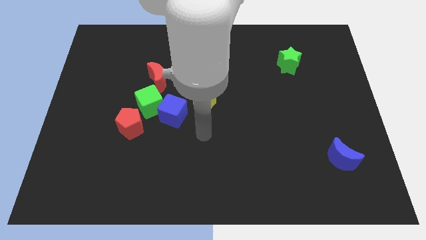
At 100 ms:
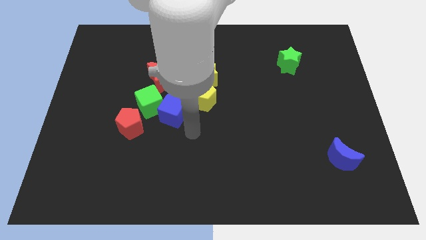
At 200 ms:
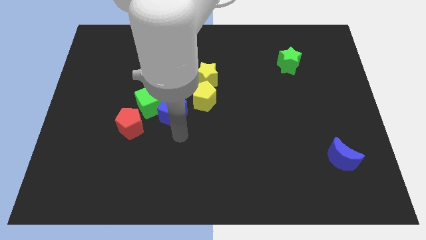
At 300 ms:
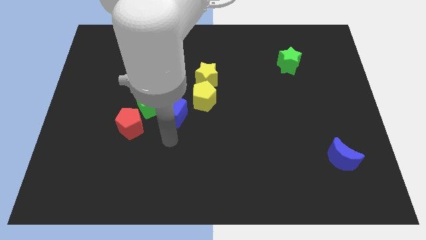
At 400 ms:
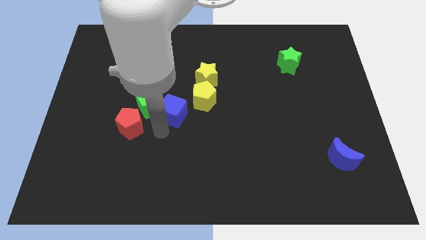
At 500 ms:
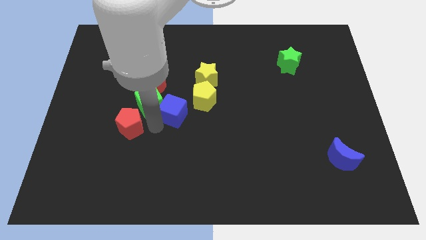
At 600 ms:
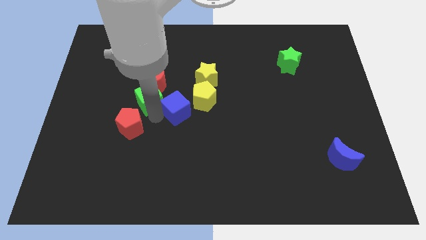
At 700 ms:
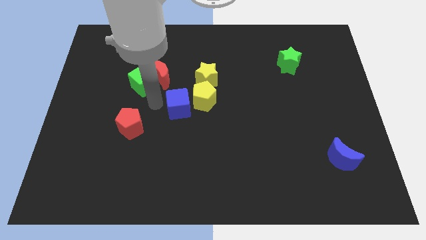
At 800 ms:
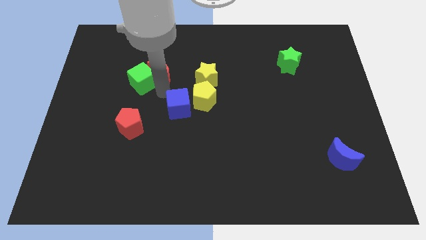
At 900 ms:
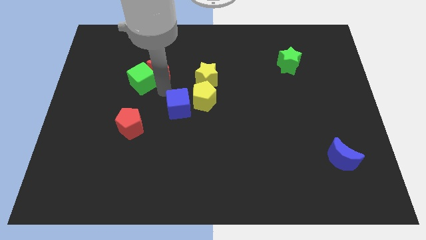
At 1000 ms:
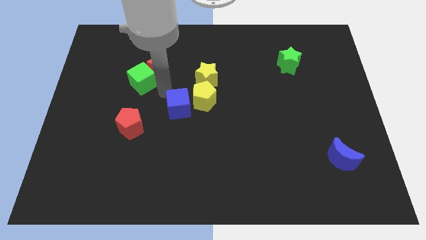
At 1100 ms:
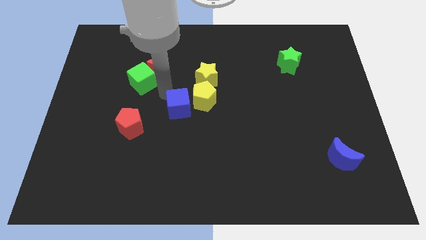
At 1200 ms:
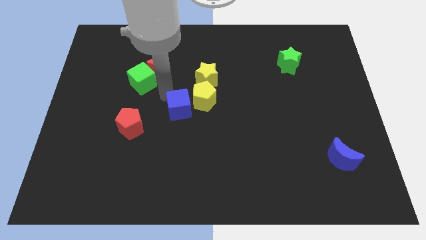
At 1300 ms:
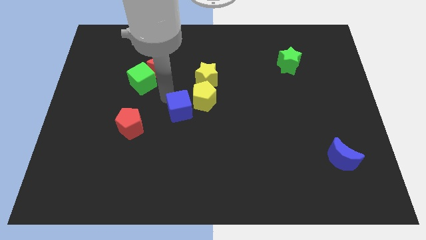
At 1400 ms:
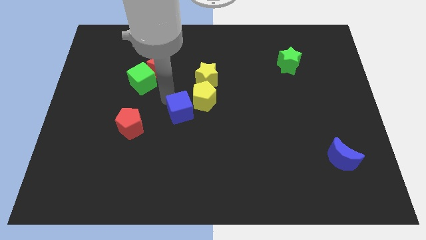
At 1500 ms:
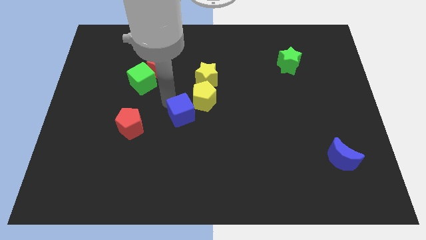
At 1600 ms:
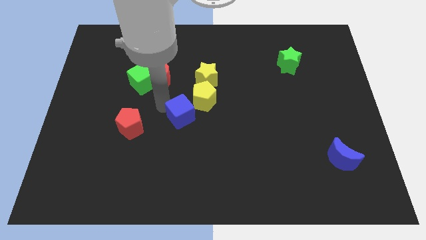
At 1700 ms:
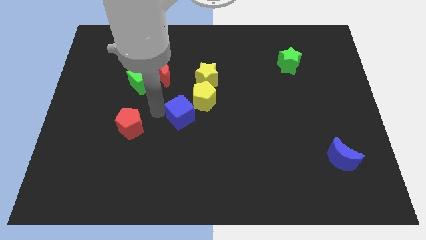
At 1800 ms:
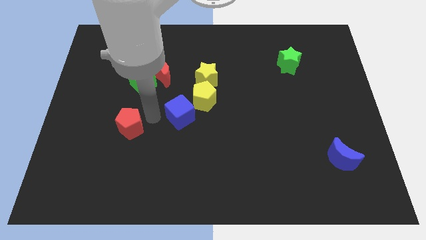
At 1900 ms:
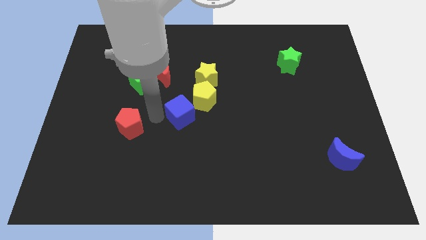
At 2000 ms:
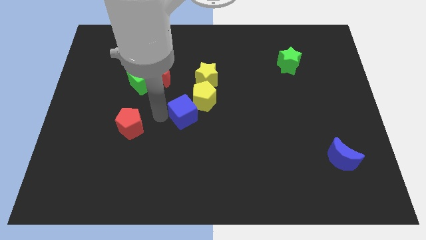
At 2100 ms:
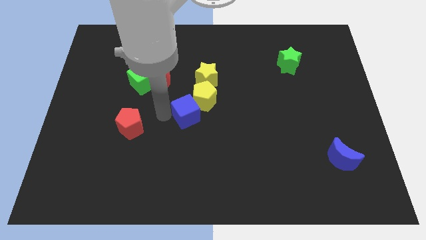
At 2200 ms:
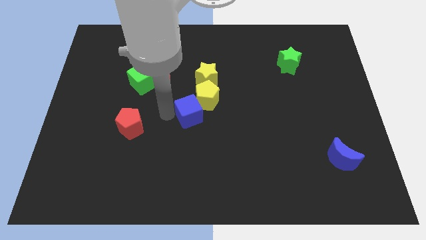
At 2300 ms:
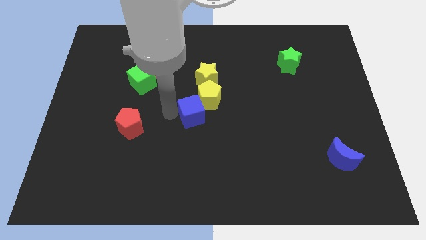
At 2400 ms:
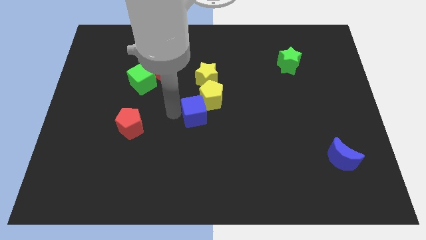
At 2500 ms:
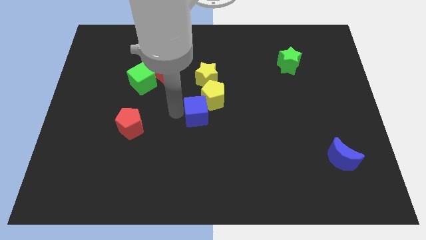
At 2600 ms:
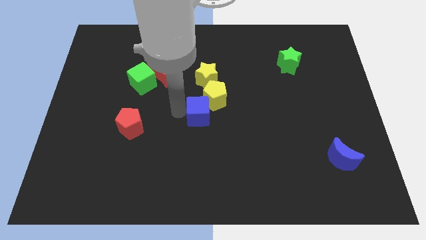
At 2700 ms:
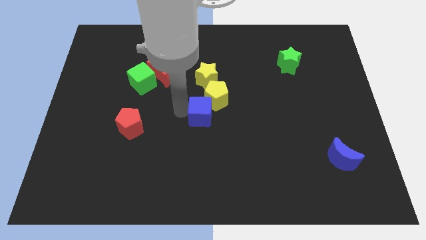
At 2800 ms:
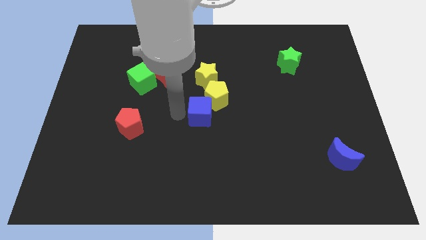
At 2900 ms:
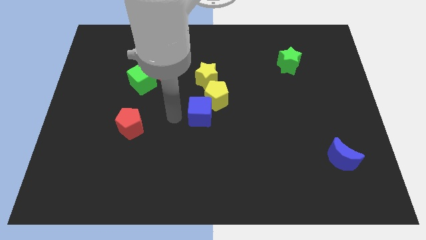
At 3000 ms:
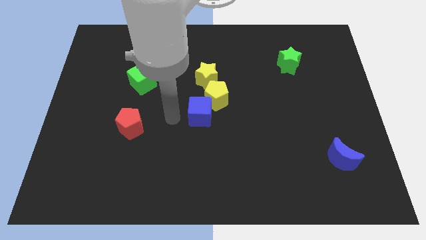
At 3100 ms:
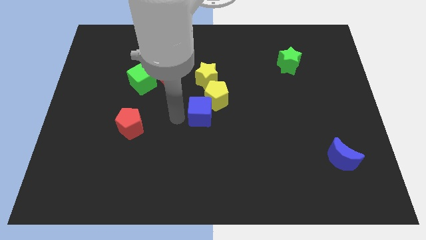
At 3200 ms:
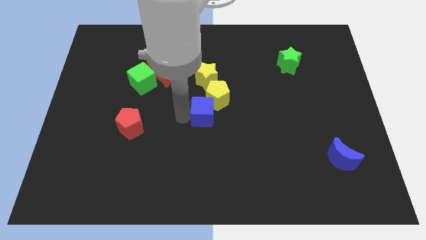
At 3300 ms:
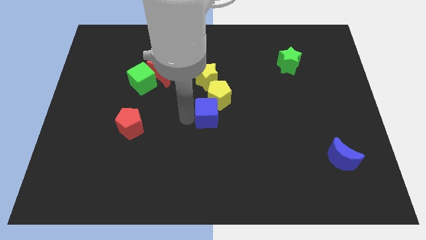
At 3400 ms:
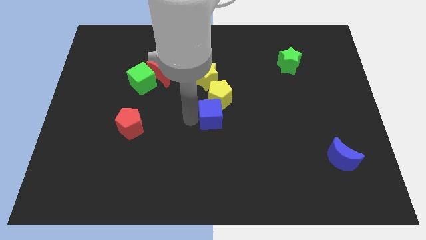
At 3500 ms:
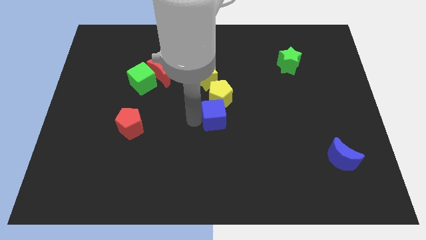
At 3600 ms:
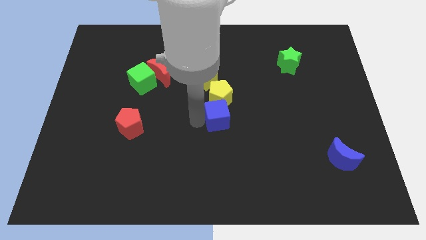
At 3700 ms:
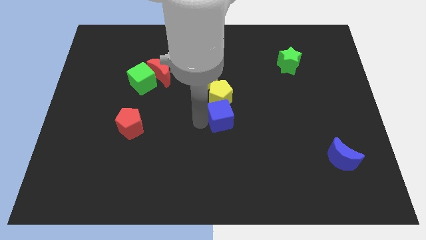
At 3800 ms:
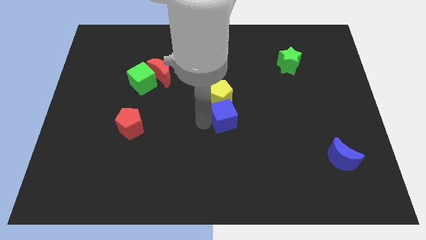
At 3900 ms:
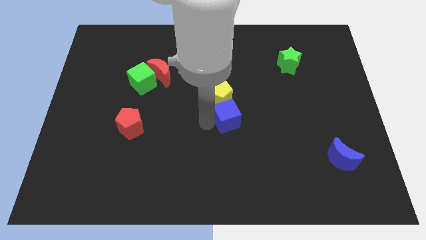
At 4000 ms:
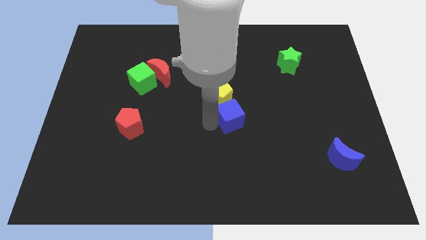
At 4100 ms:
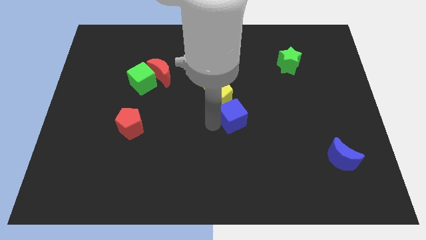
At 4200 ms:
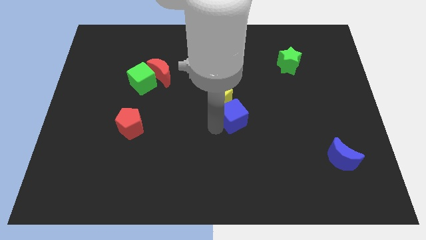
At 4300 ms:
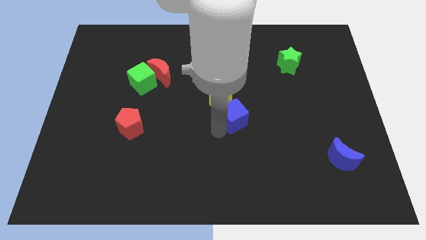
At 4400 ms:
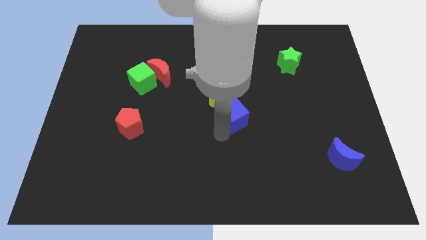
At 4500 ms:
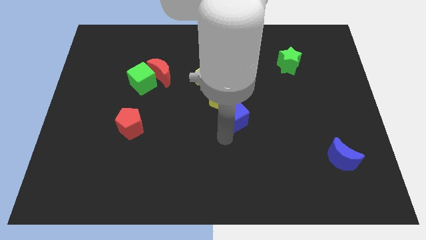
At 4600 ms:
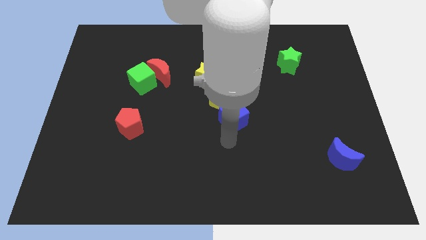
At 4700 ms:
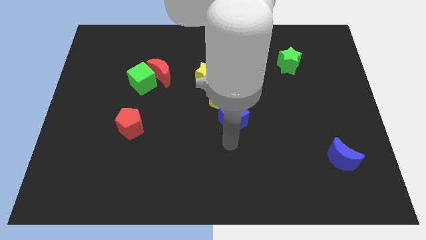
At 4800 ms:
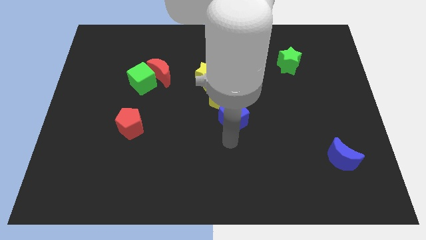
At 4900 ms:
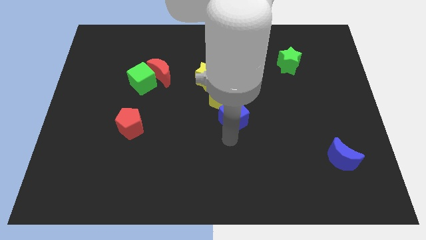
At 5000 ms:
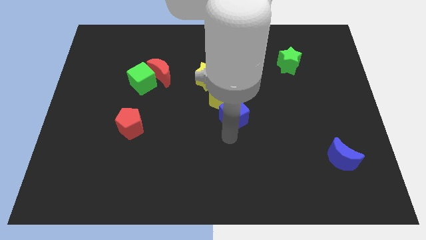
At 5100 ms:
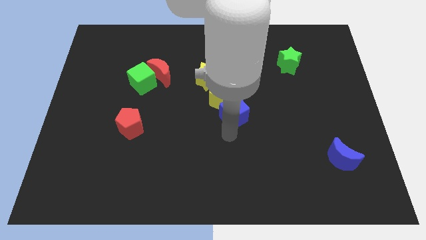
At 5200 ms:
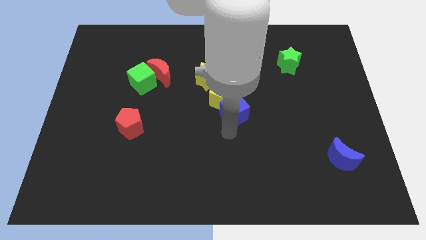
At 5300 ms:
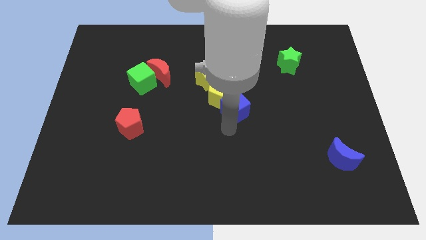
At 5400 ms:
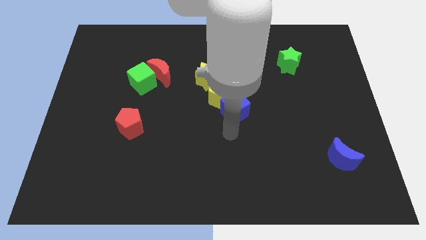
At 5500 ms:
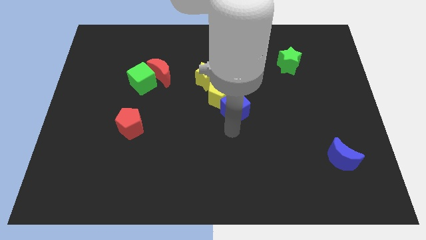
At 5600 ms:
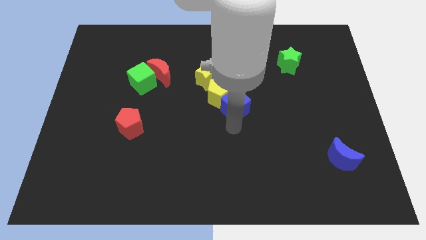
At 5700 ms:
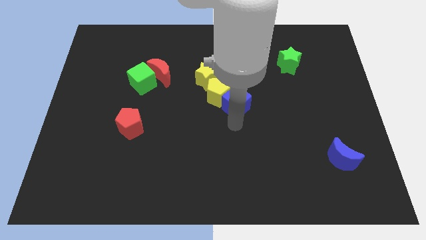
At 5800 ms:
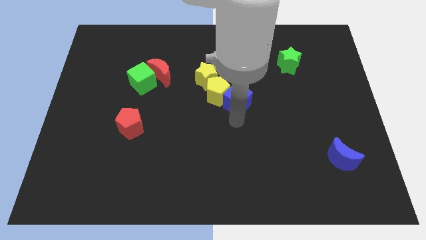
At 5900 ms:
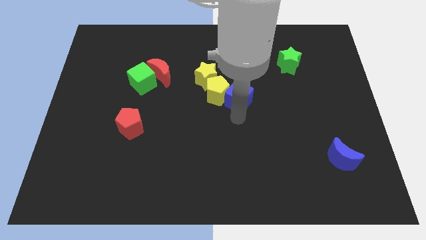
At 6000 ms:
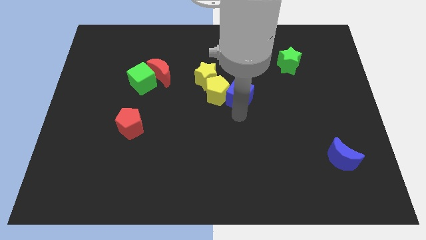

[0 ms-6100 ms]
push the blue cube diagonally up and to the right of the yellow pentagon

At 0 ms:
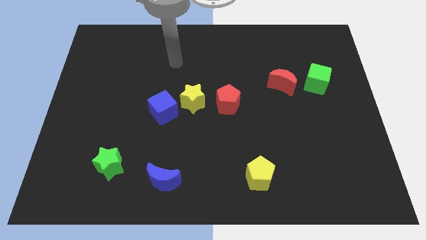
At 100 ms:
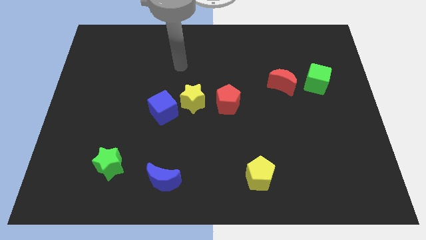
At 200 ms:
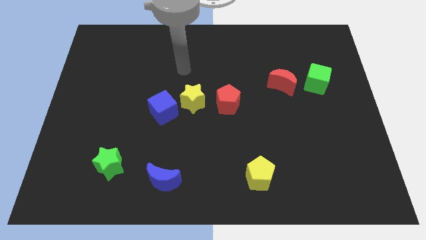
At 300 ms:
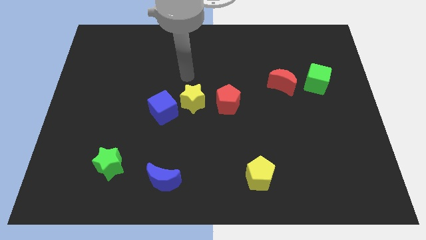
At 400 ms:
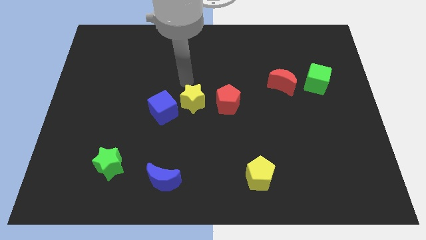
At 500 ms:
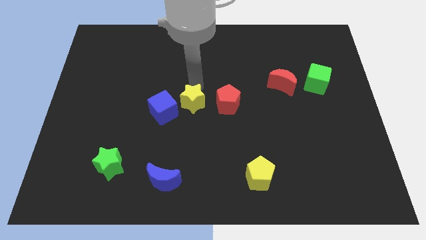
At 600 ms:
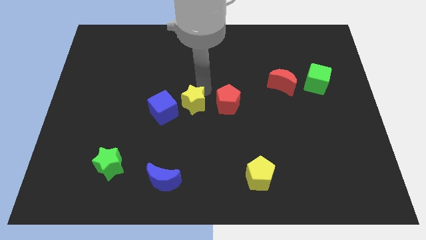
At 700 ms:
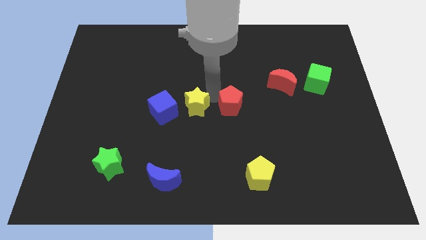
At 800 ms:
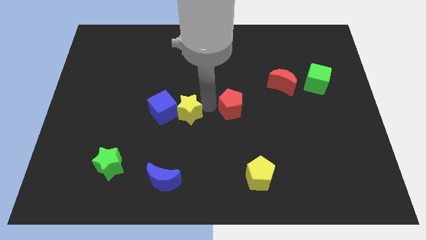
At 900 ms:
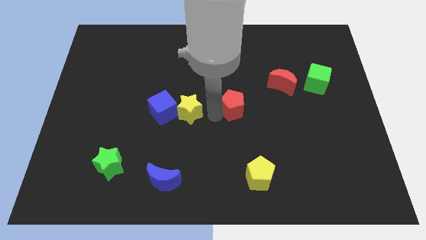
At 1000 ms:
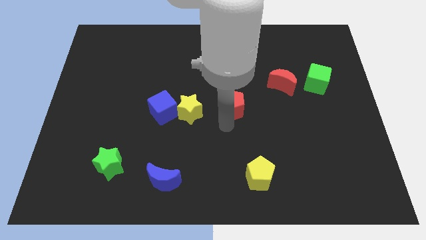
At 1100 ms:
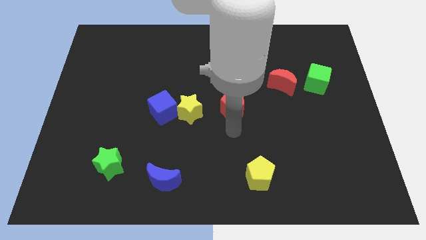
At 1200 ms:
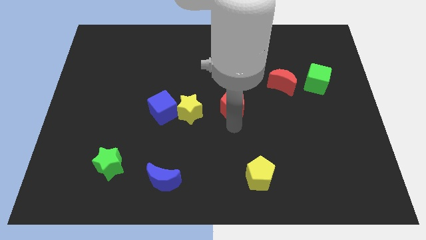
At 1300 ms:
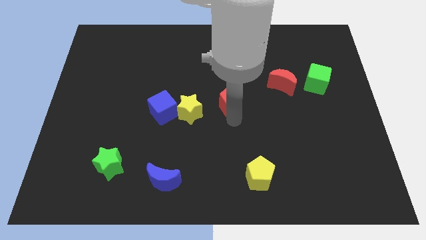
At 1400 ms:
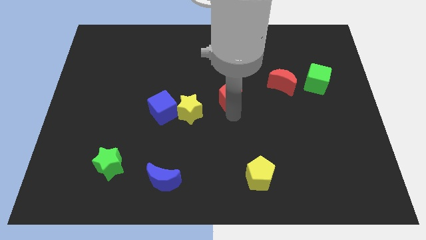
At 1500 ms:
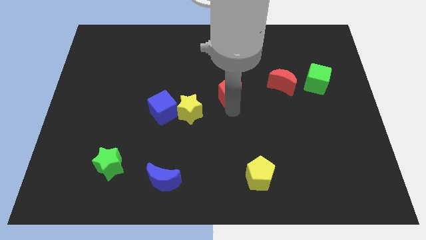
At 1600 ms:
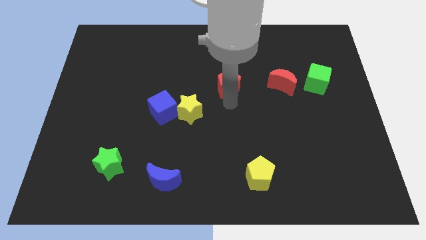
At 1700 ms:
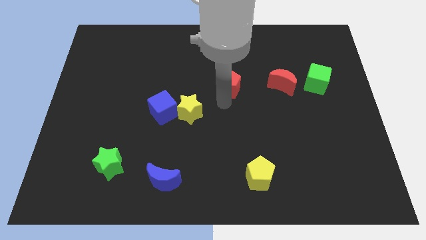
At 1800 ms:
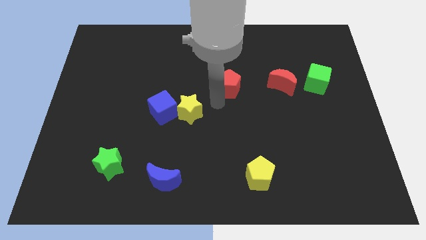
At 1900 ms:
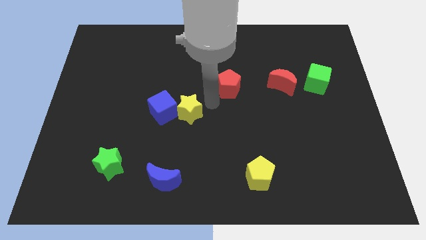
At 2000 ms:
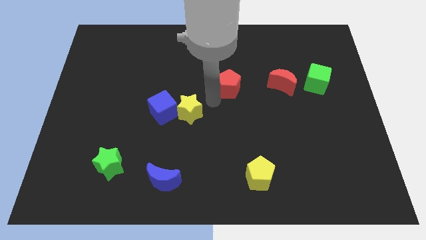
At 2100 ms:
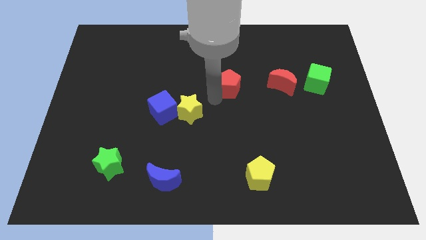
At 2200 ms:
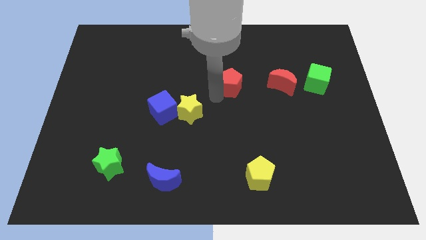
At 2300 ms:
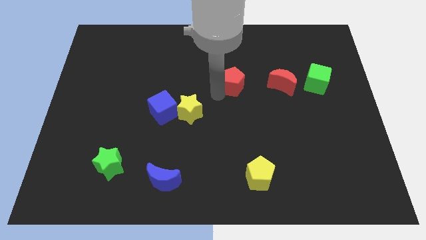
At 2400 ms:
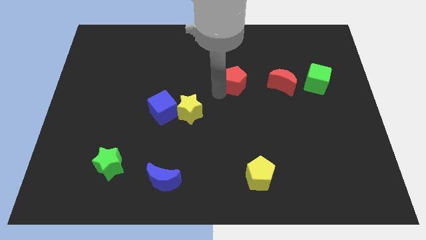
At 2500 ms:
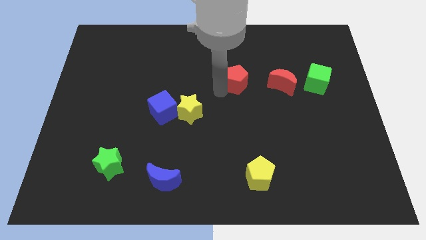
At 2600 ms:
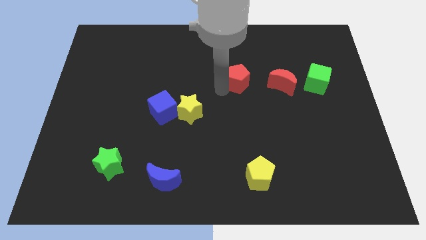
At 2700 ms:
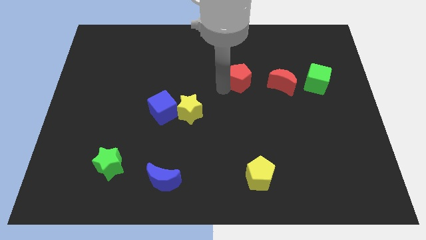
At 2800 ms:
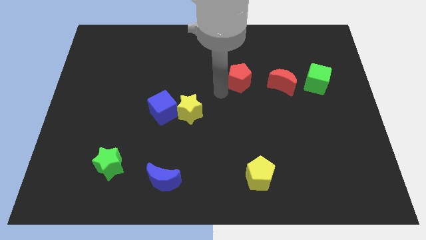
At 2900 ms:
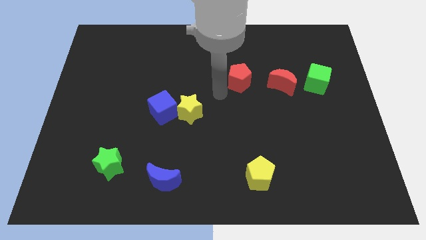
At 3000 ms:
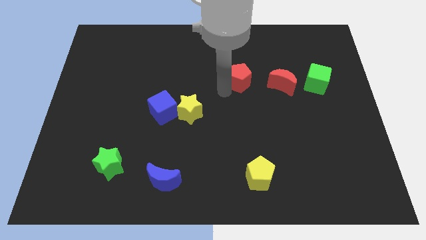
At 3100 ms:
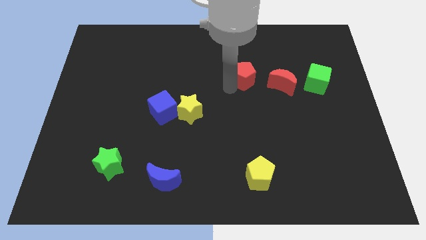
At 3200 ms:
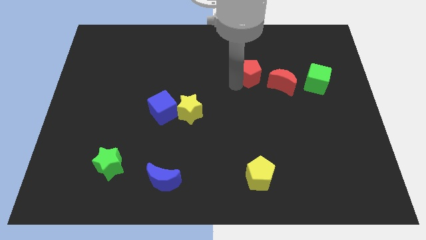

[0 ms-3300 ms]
push the red pentagon to the top left side of the red moon
